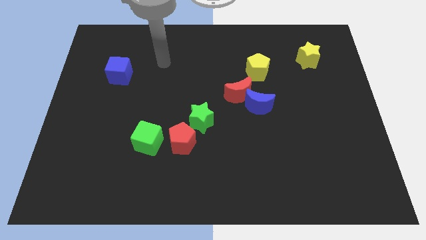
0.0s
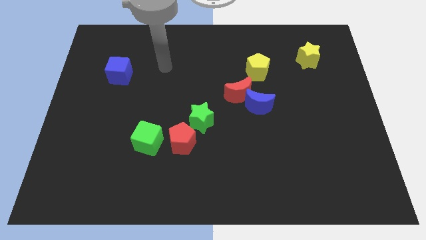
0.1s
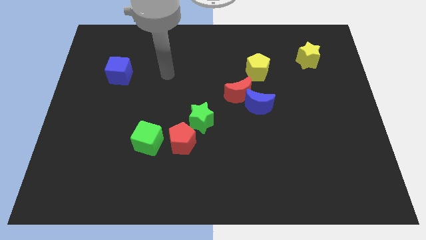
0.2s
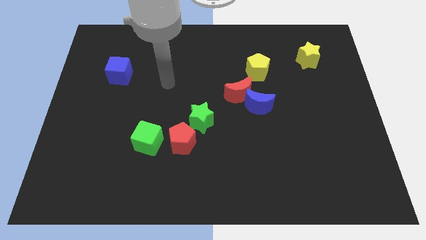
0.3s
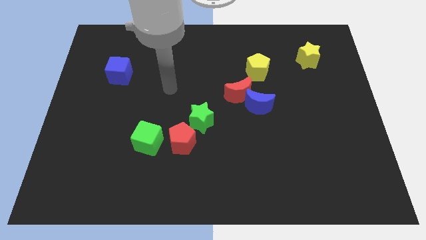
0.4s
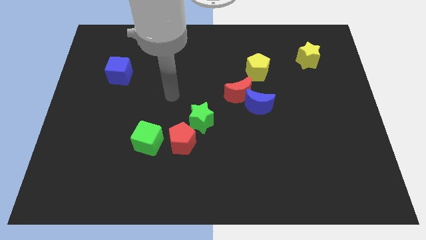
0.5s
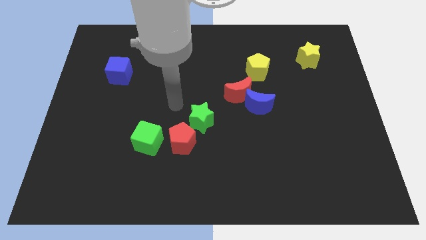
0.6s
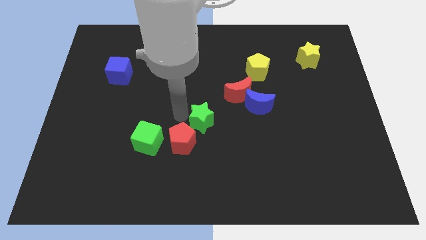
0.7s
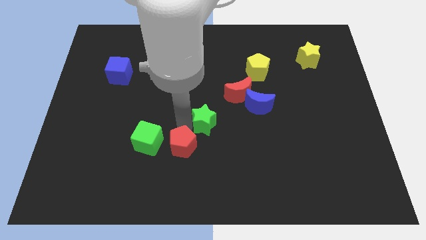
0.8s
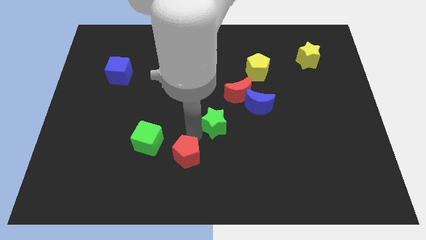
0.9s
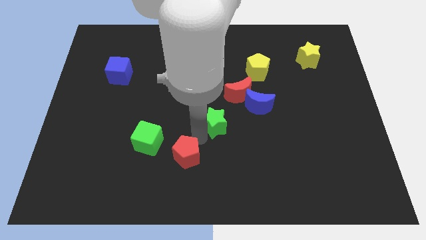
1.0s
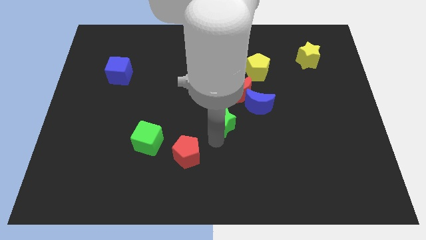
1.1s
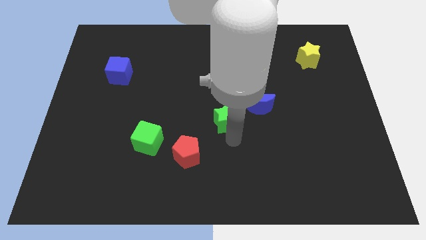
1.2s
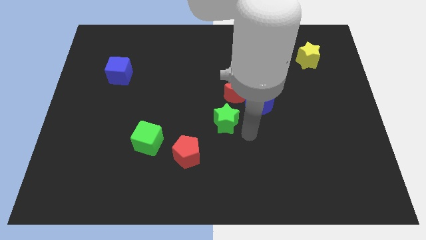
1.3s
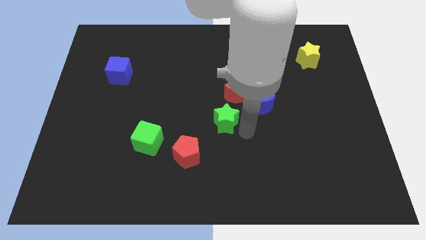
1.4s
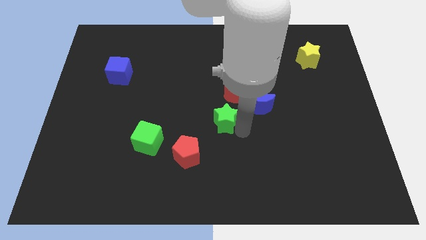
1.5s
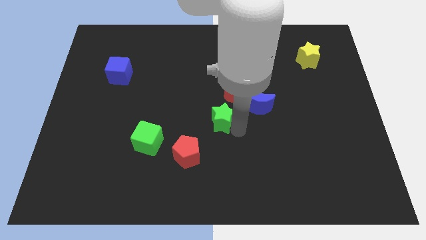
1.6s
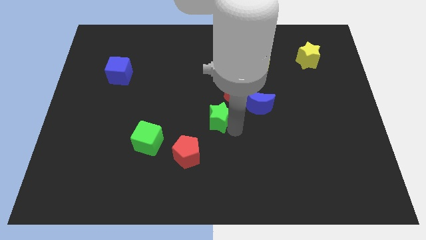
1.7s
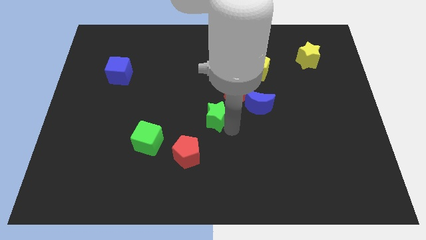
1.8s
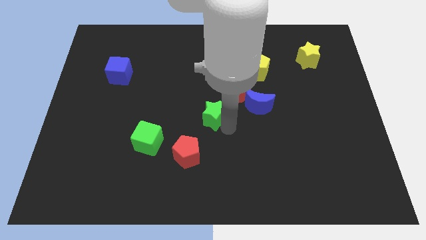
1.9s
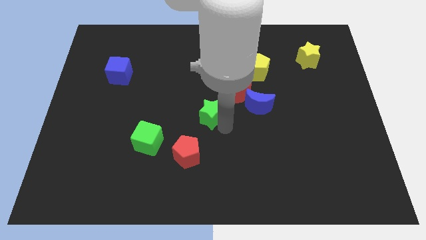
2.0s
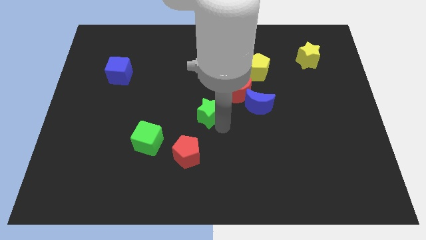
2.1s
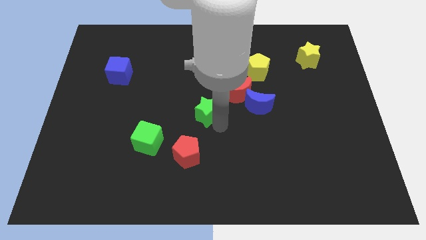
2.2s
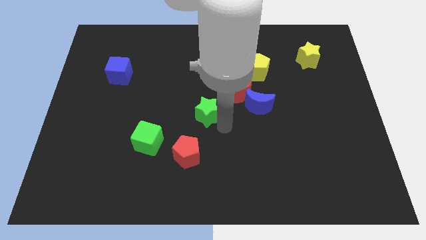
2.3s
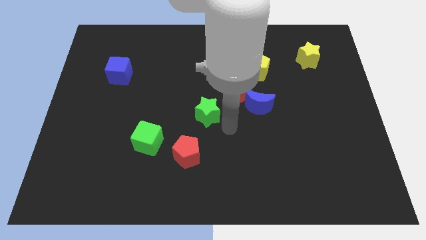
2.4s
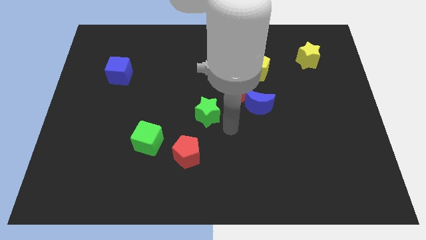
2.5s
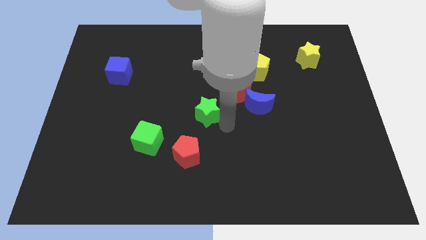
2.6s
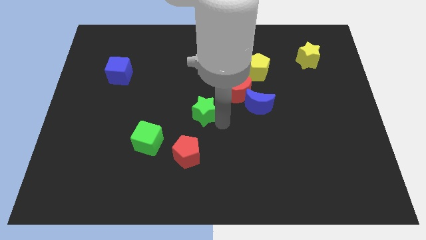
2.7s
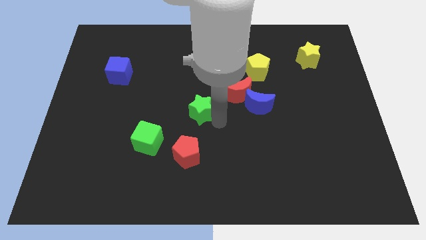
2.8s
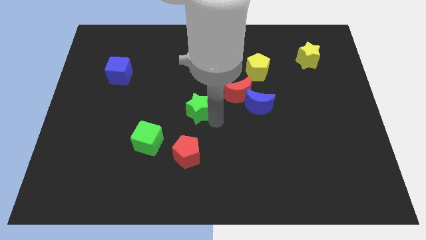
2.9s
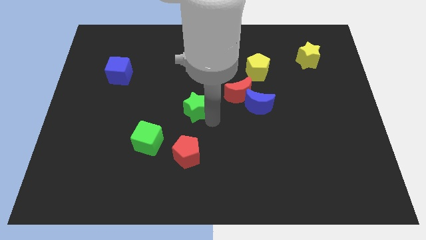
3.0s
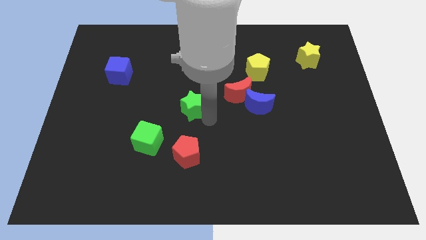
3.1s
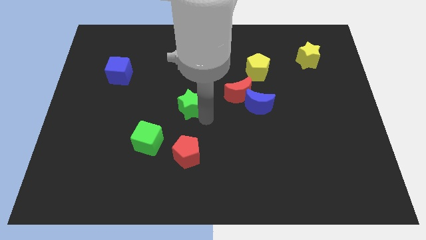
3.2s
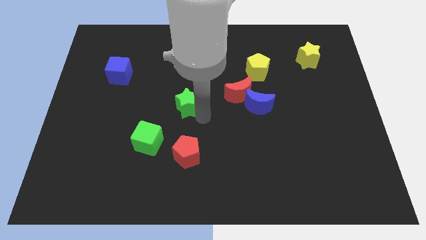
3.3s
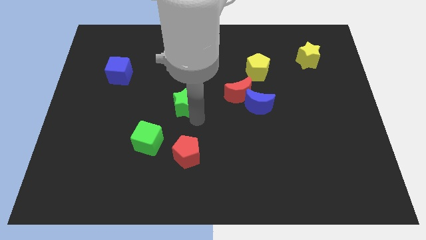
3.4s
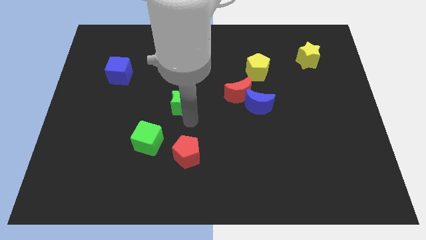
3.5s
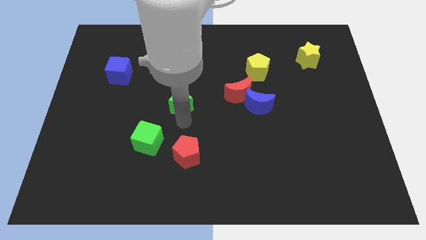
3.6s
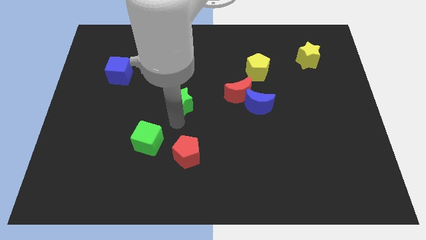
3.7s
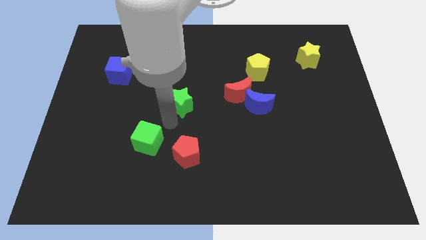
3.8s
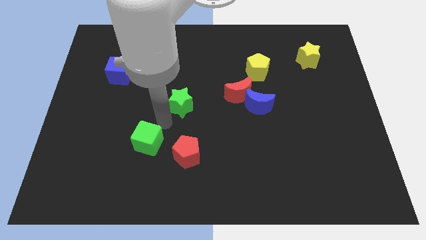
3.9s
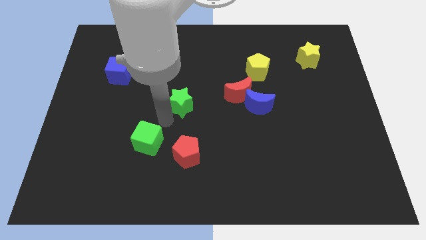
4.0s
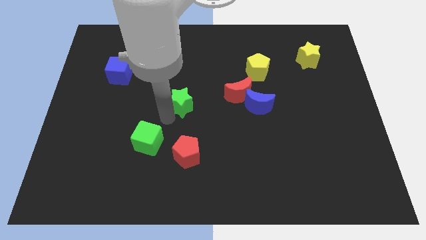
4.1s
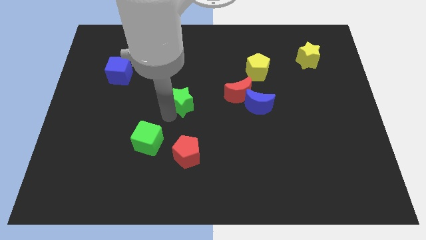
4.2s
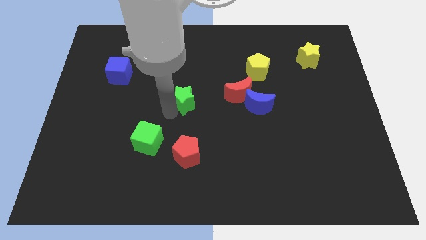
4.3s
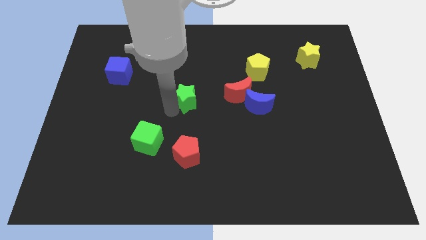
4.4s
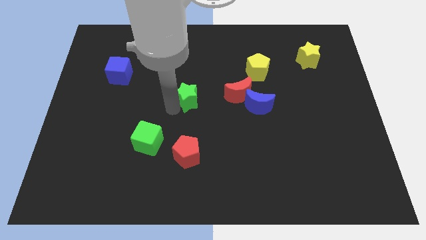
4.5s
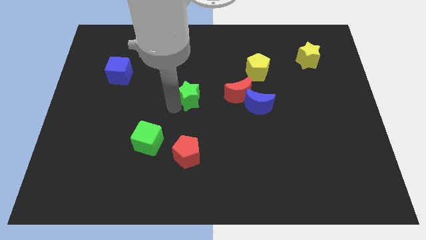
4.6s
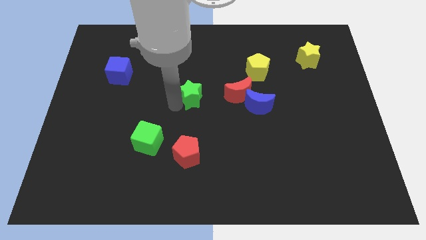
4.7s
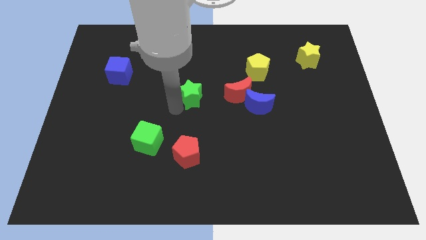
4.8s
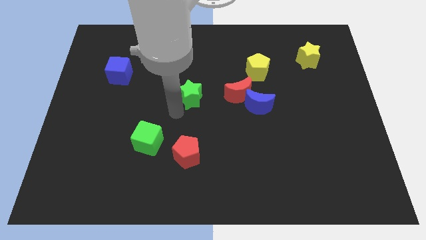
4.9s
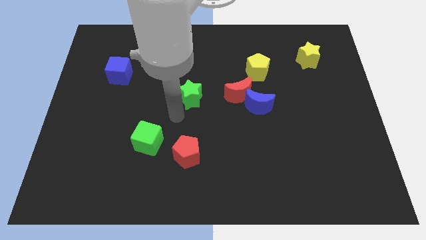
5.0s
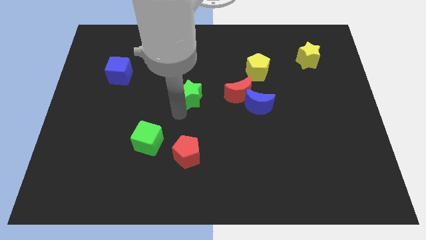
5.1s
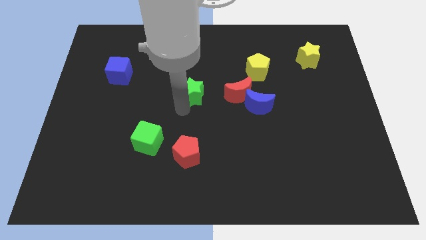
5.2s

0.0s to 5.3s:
push the green star a little upwards

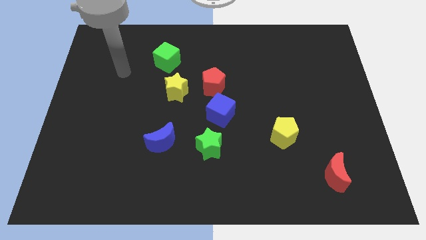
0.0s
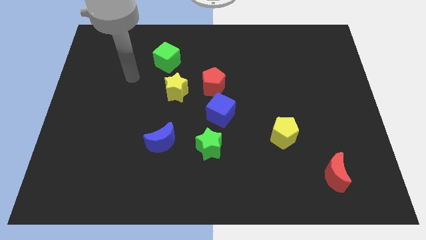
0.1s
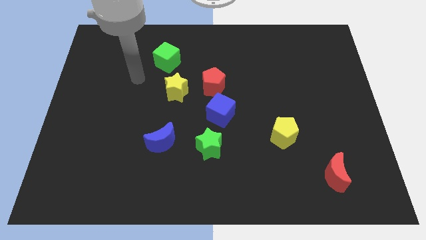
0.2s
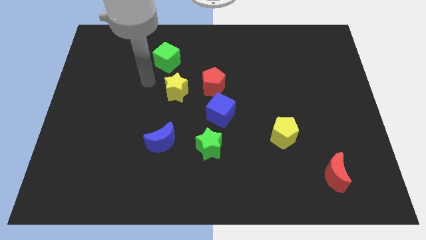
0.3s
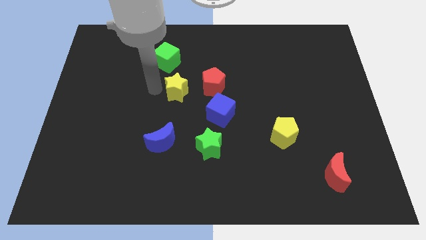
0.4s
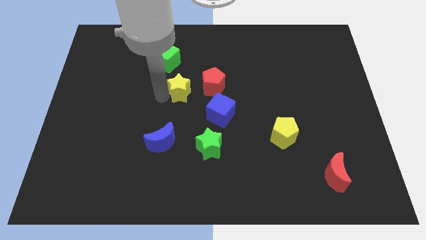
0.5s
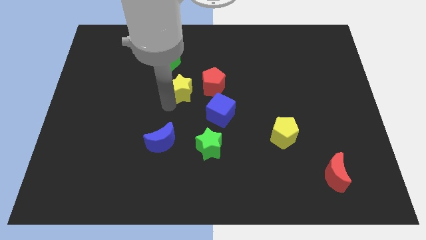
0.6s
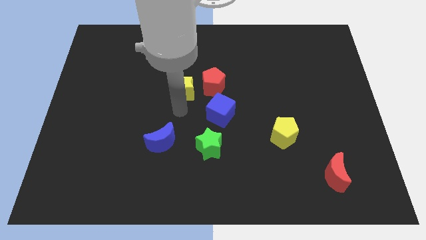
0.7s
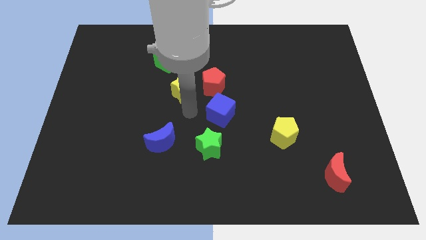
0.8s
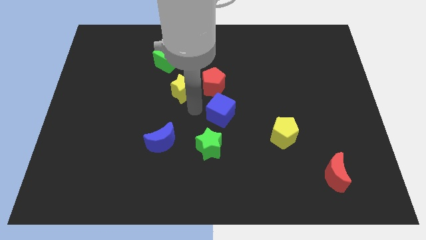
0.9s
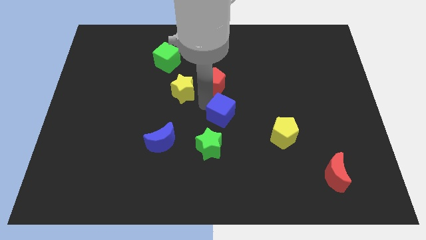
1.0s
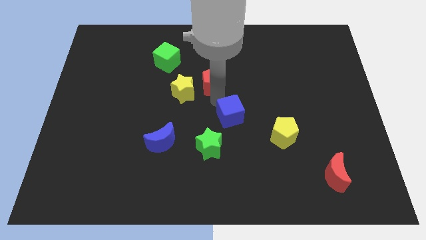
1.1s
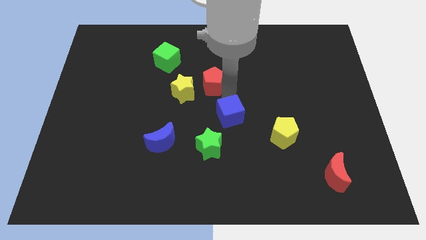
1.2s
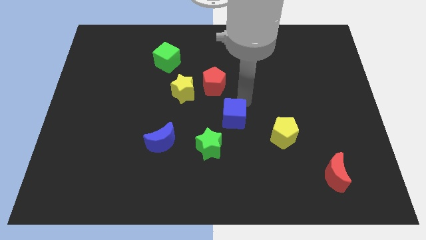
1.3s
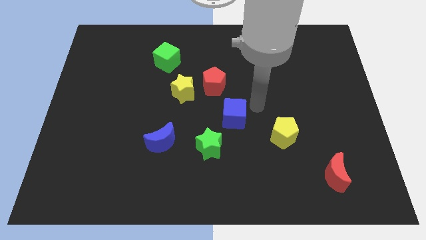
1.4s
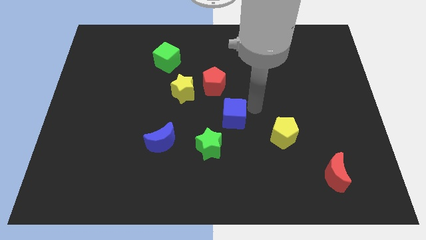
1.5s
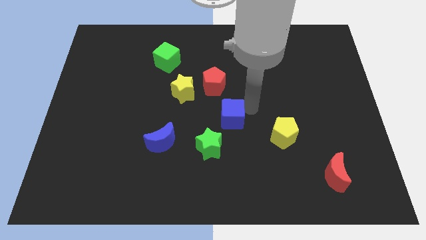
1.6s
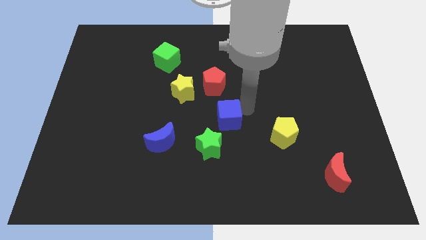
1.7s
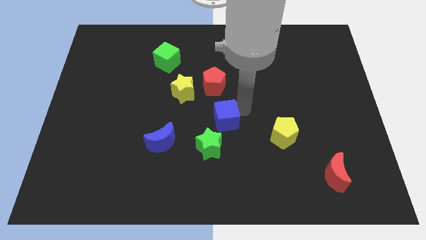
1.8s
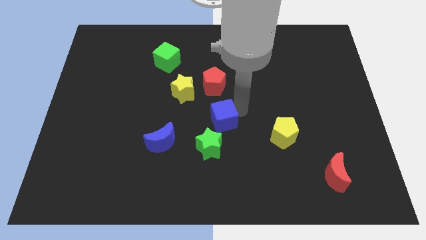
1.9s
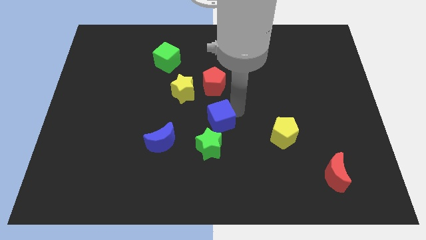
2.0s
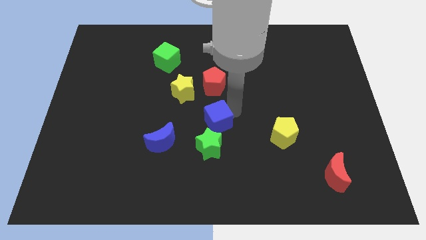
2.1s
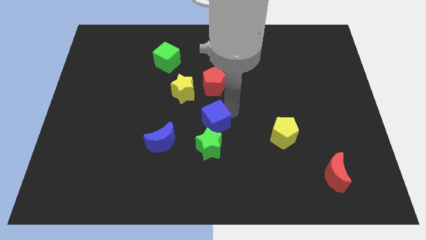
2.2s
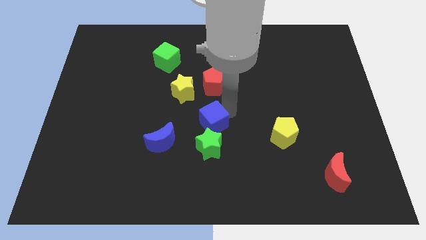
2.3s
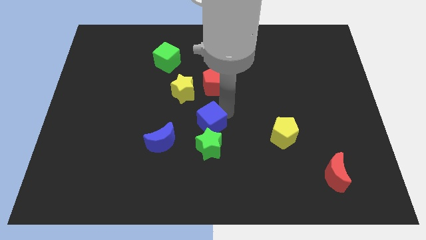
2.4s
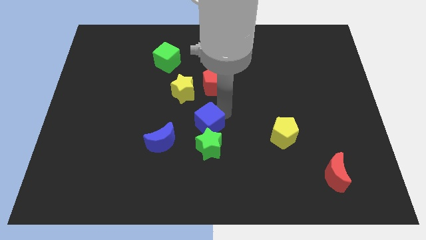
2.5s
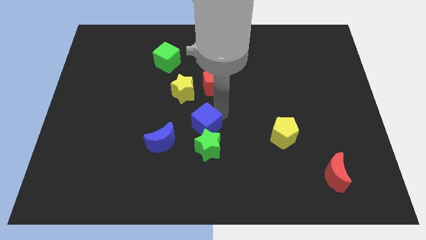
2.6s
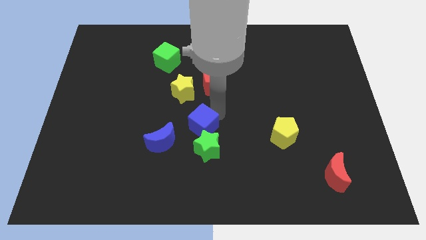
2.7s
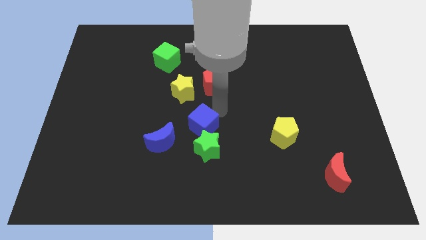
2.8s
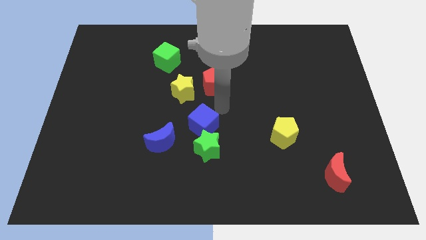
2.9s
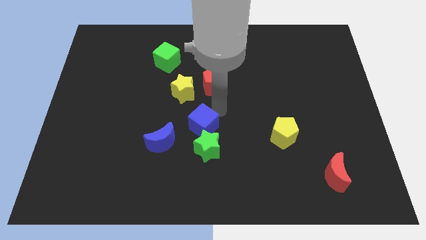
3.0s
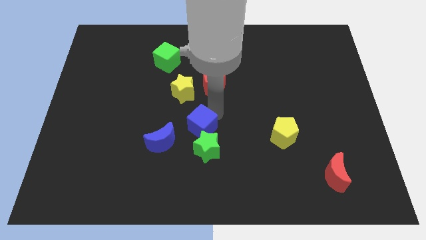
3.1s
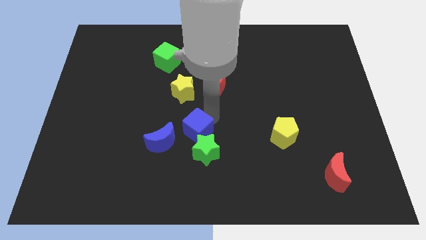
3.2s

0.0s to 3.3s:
slightly push the blue cube downwards and to the left diagonally
